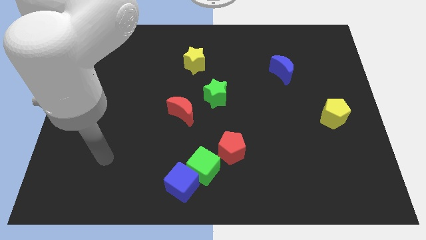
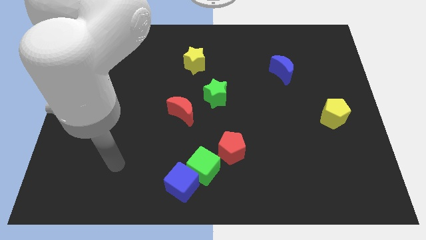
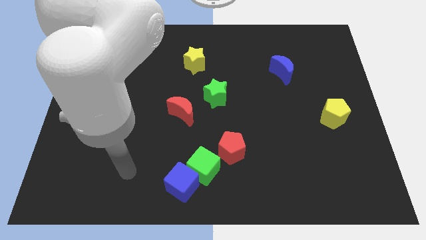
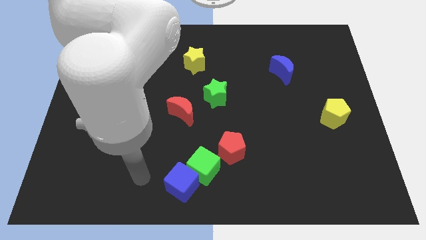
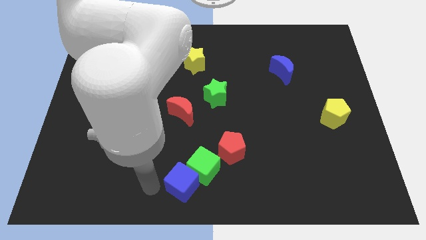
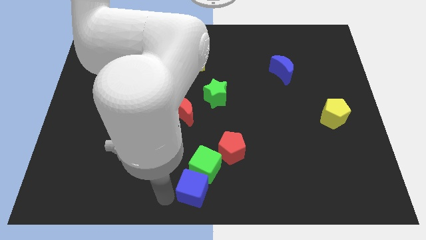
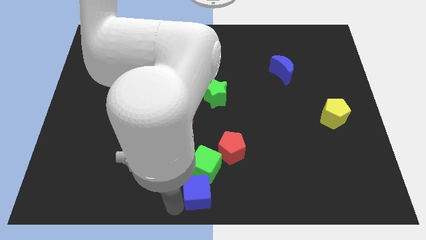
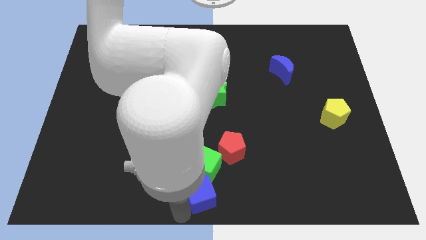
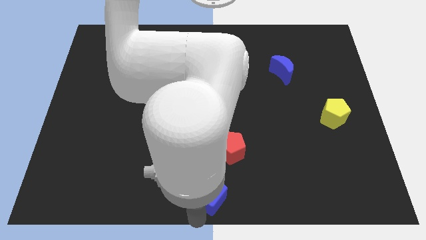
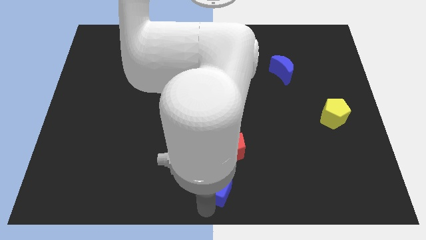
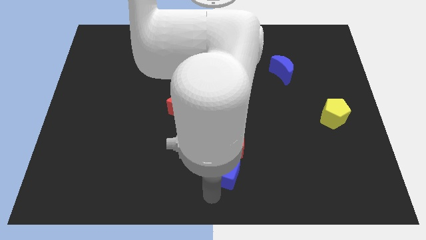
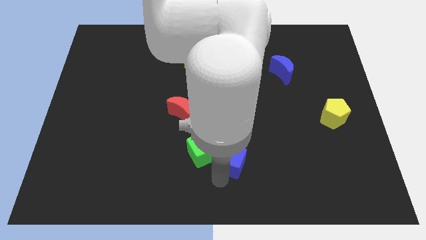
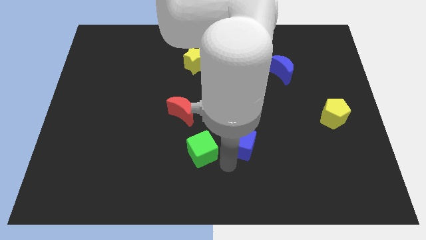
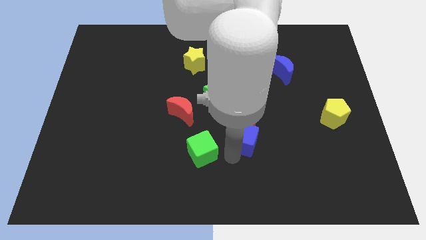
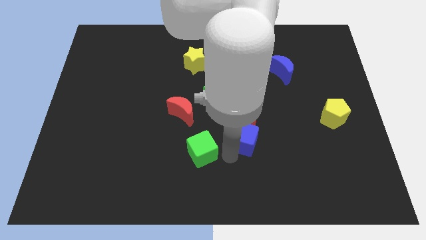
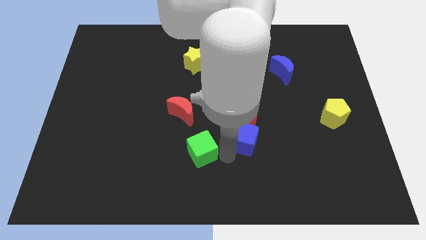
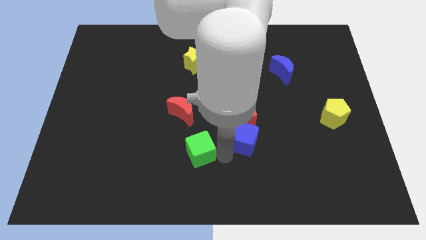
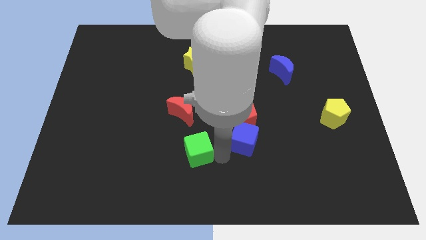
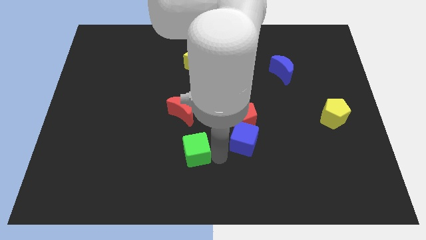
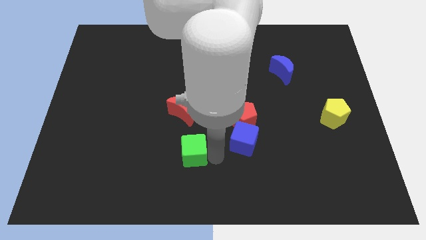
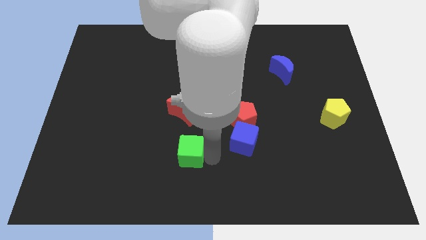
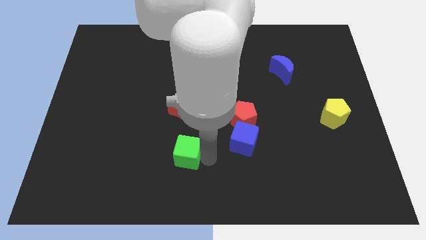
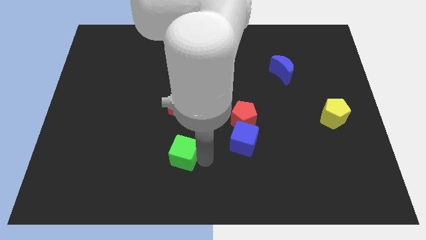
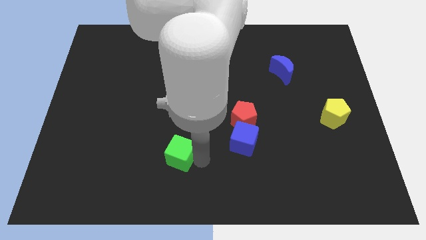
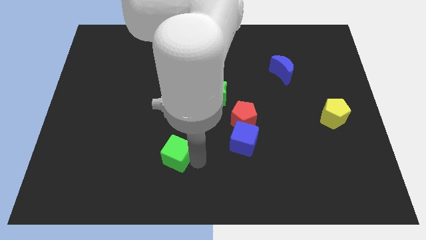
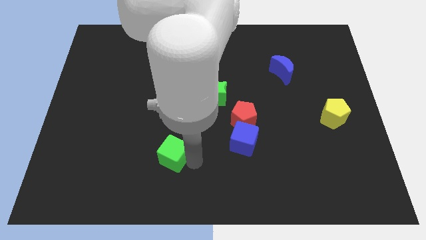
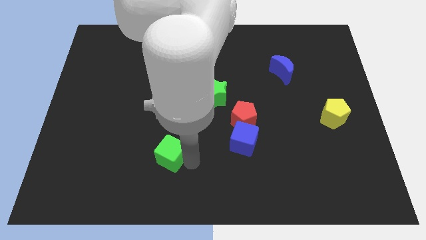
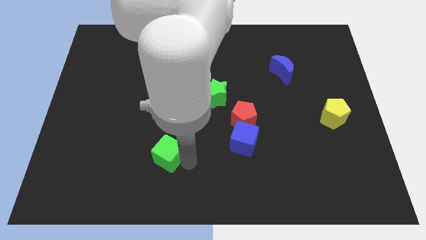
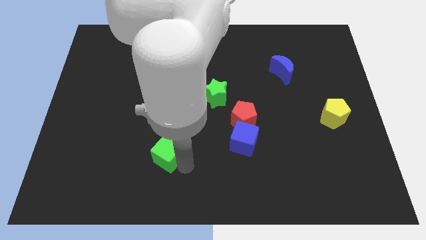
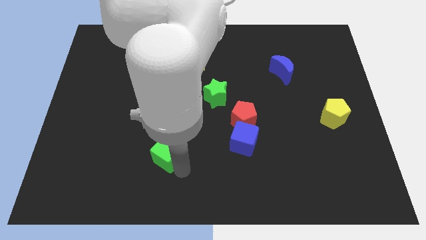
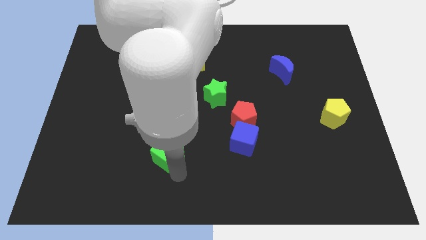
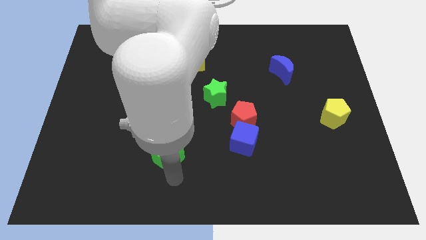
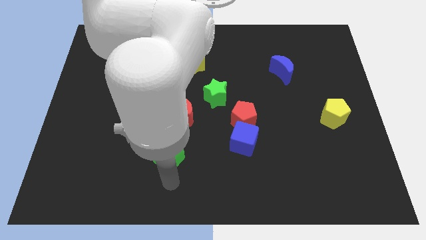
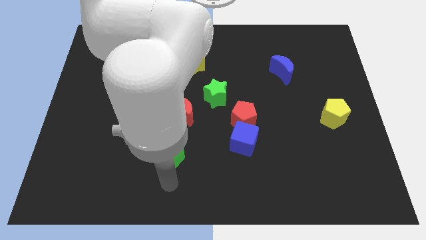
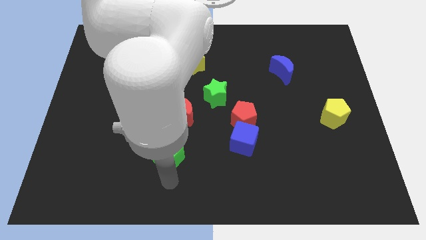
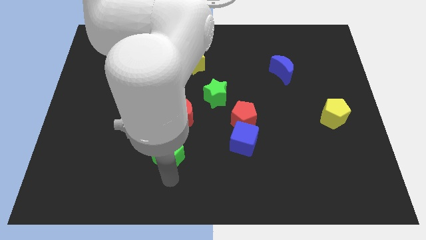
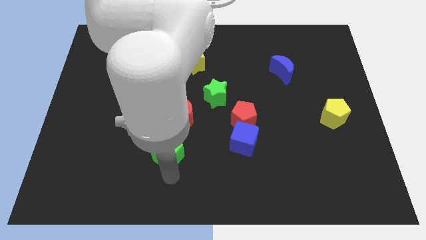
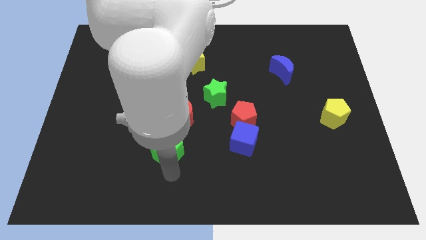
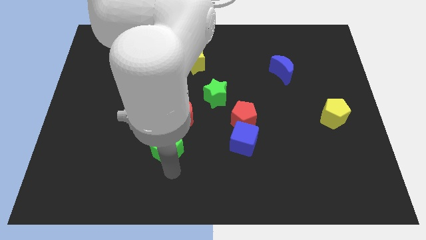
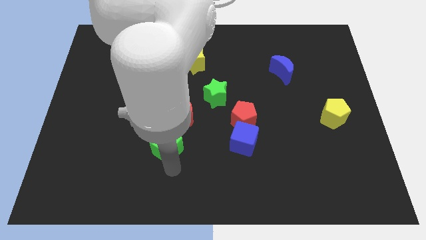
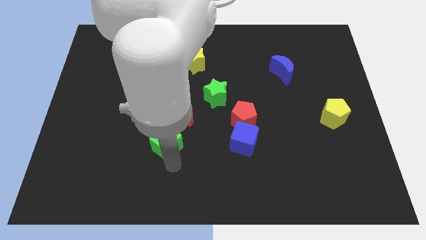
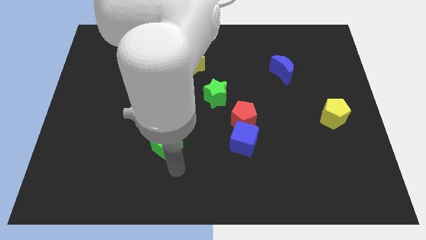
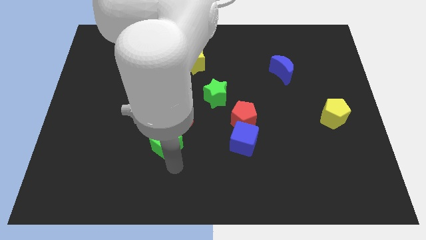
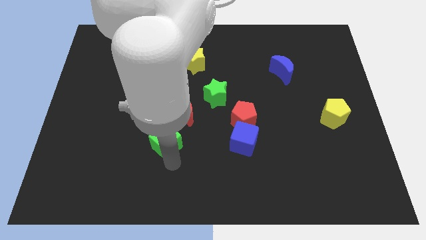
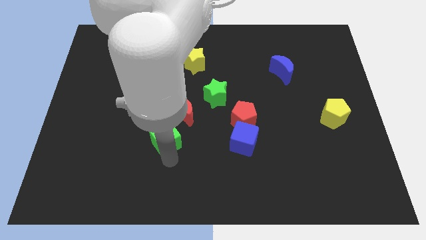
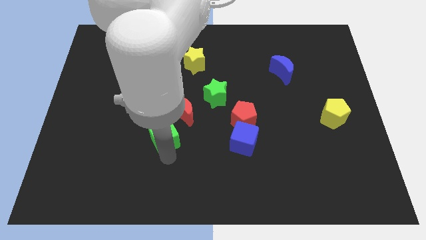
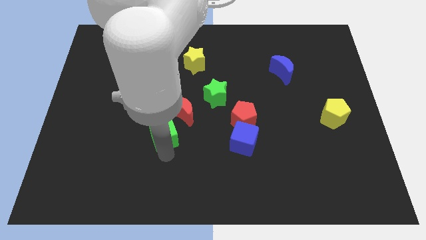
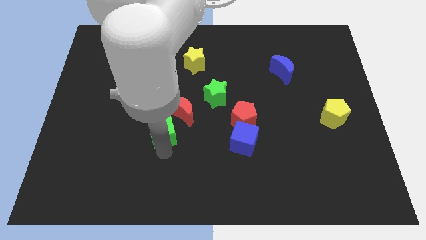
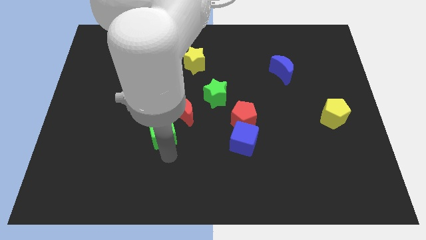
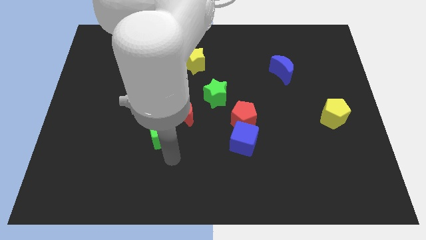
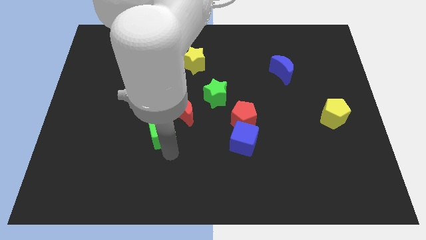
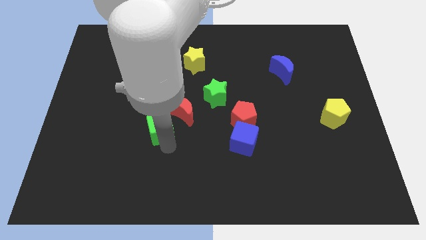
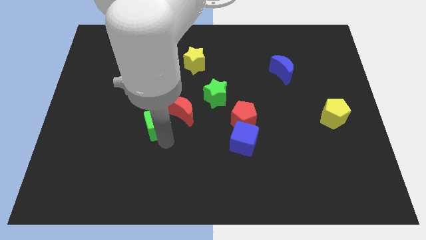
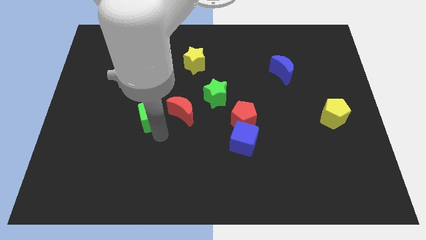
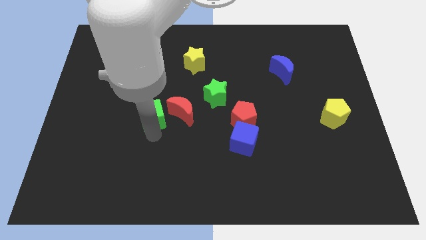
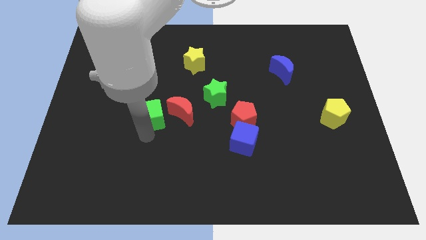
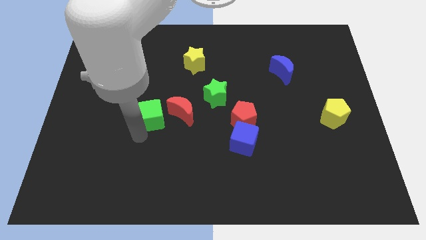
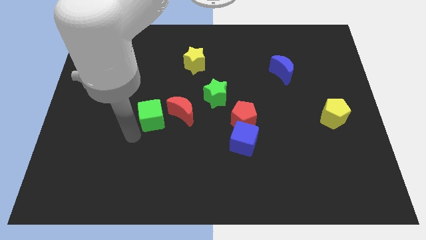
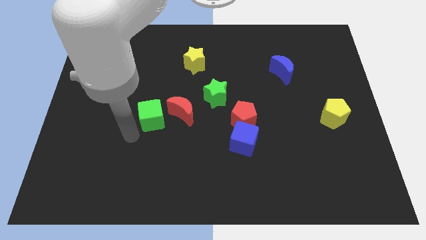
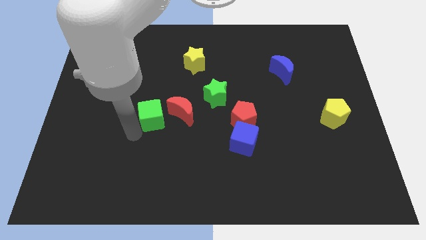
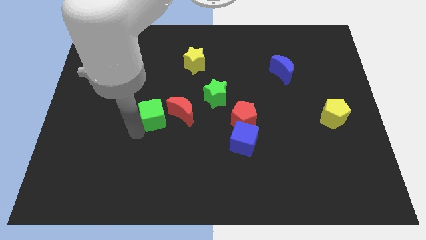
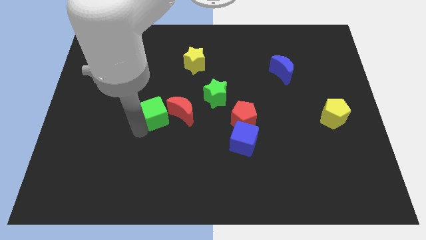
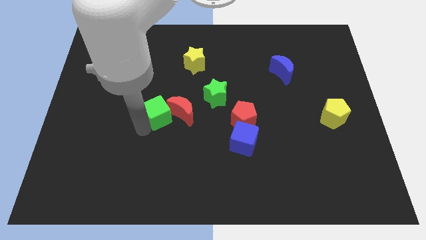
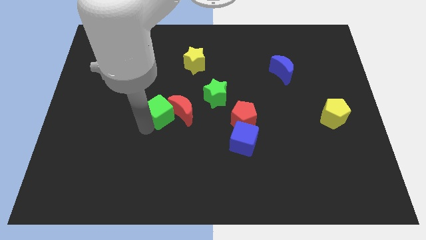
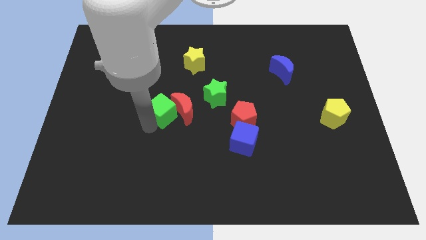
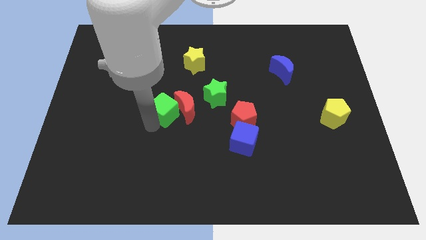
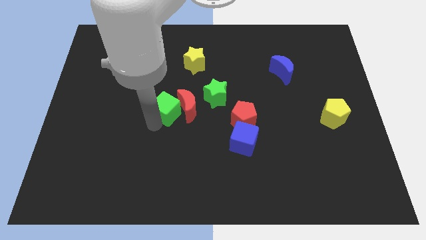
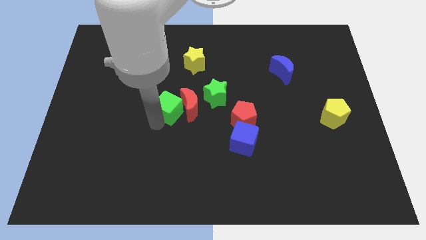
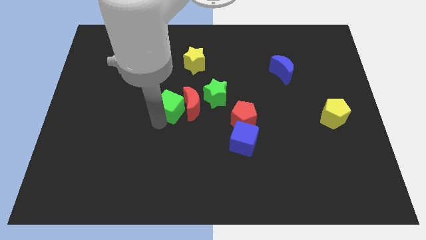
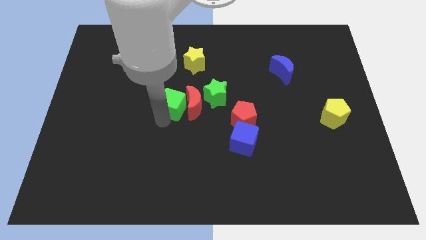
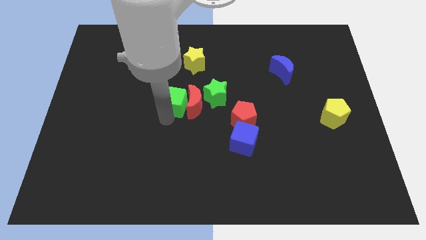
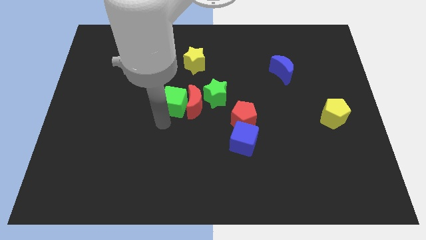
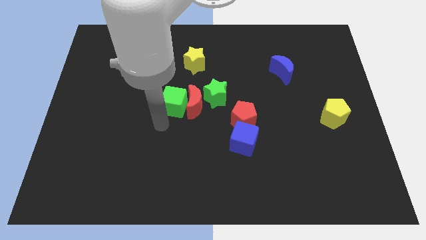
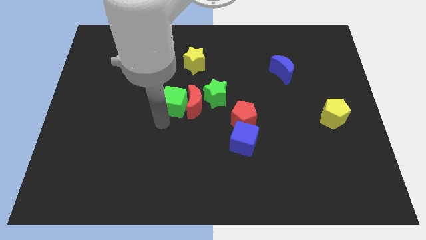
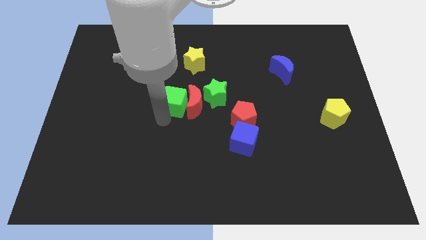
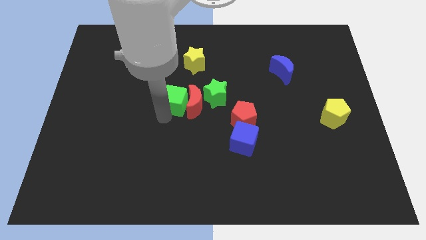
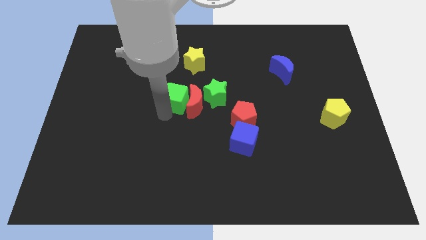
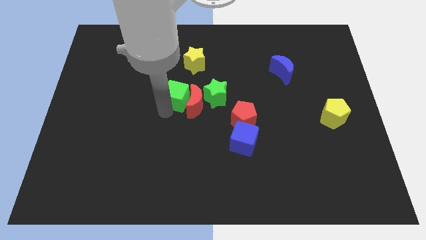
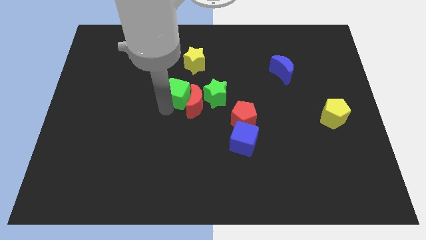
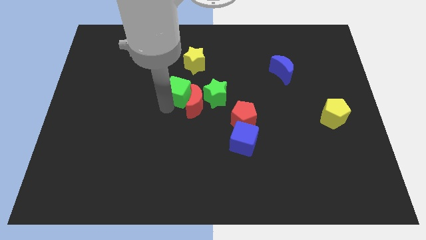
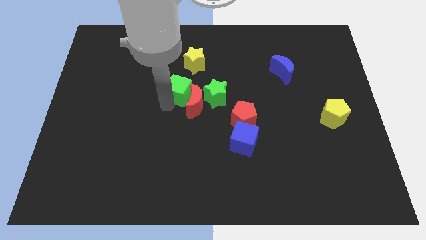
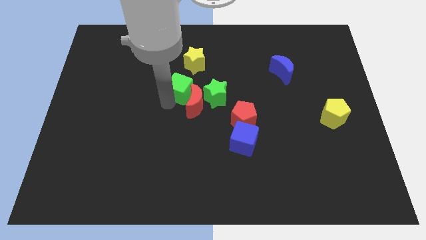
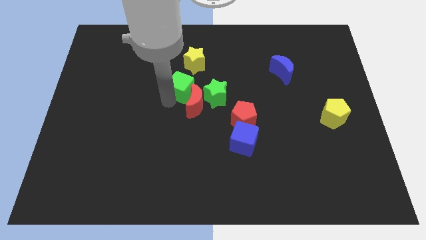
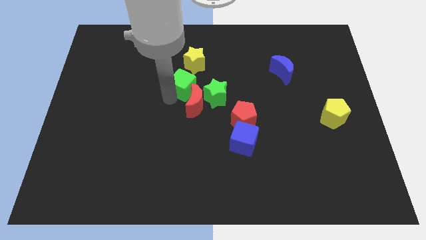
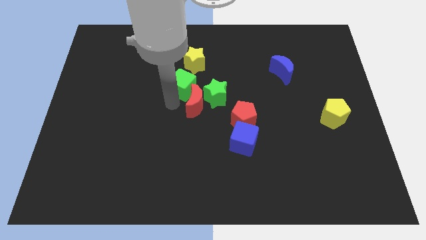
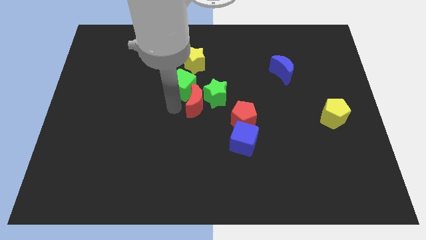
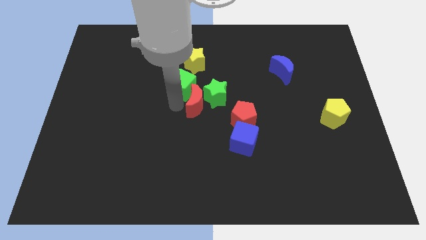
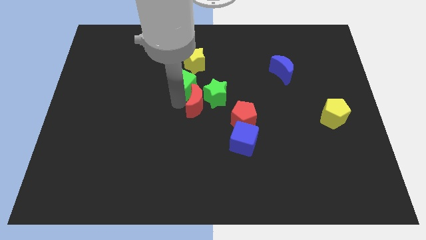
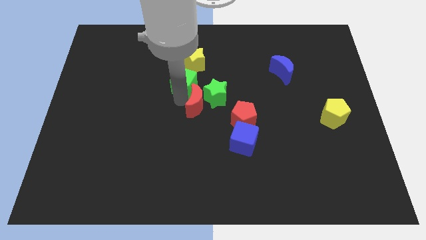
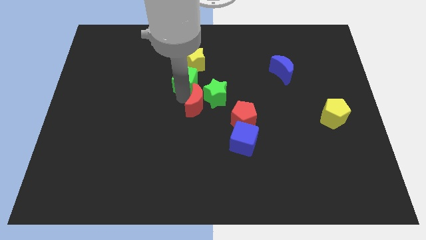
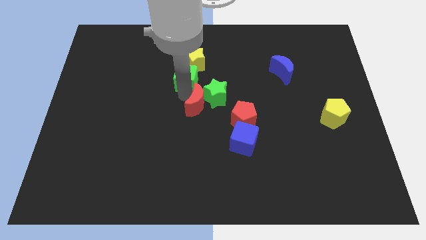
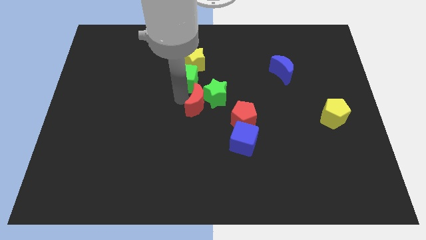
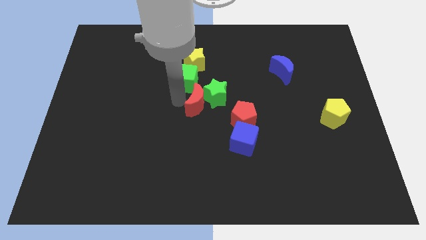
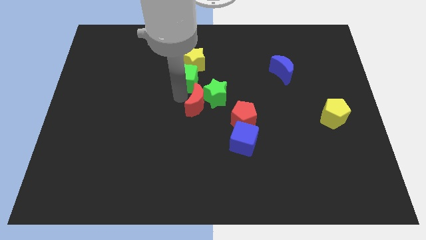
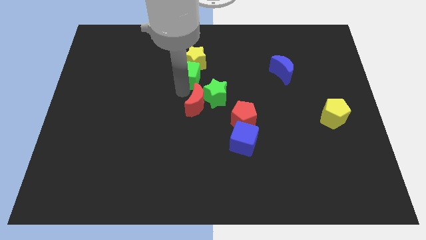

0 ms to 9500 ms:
move the green cube close to the yellow star
